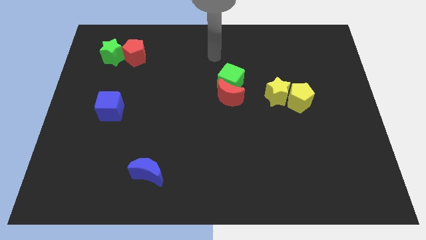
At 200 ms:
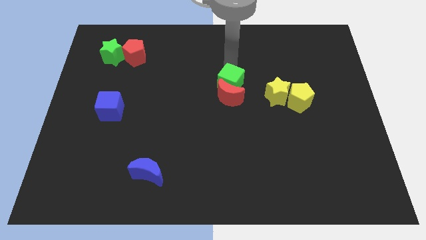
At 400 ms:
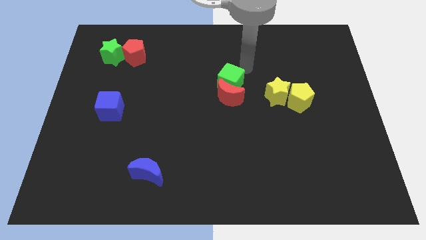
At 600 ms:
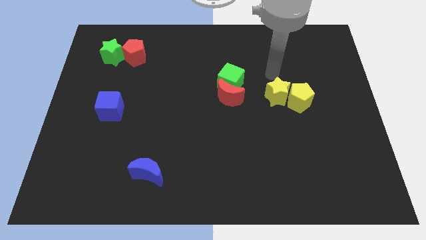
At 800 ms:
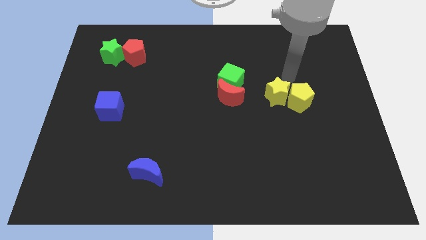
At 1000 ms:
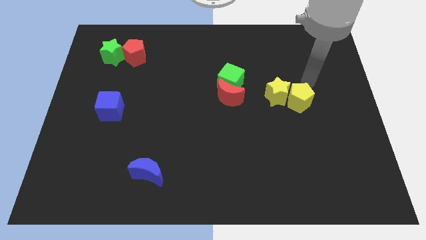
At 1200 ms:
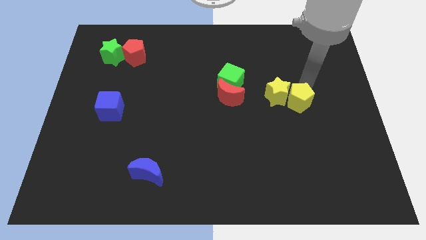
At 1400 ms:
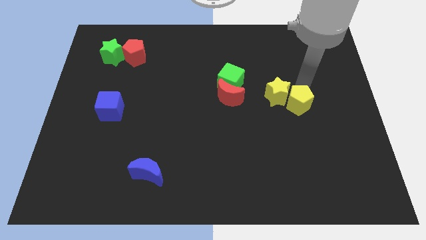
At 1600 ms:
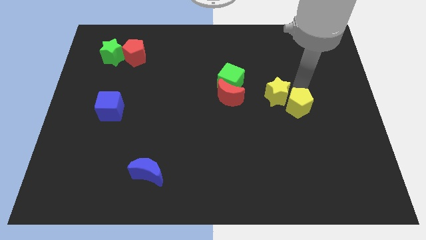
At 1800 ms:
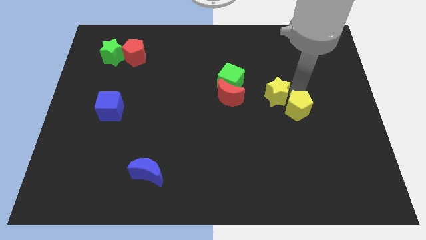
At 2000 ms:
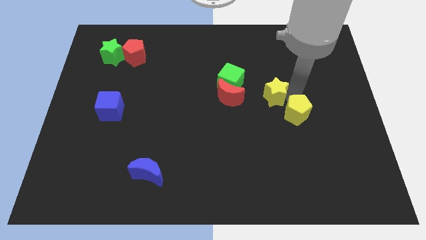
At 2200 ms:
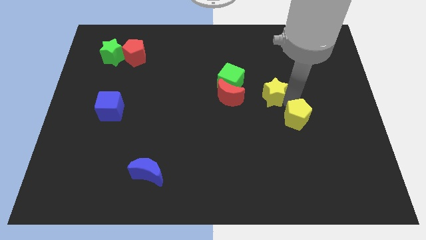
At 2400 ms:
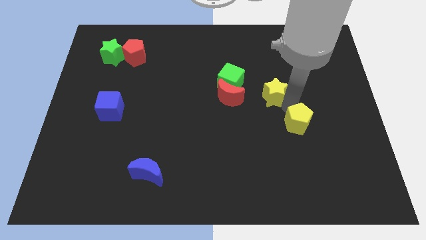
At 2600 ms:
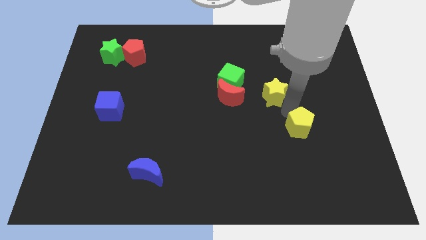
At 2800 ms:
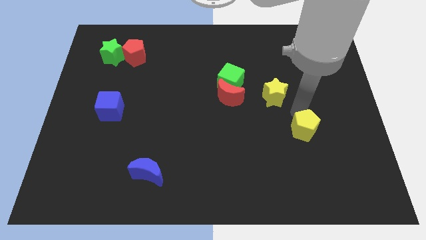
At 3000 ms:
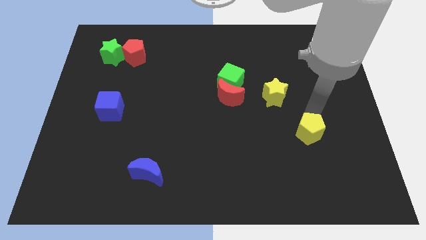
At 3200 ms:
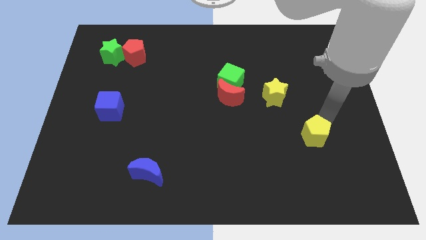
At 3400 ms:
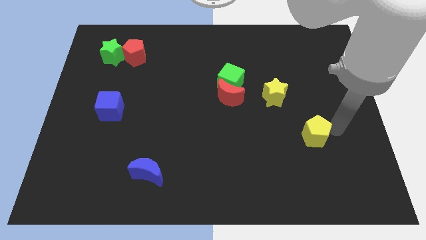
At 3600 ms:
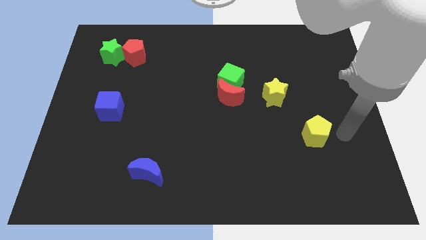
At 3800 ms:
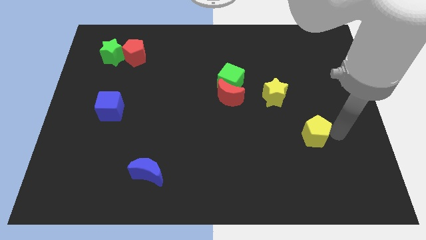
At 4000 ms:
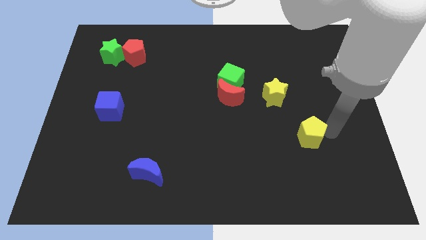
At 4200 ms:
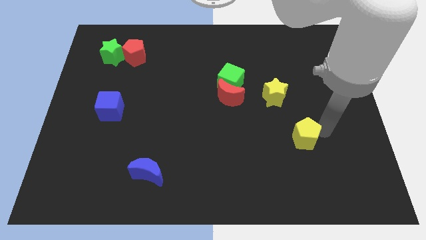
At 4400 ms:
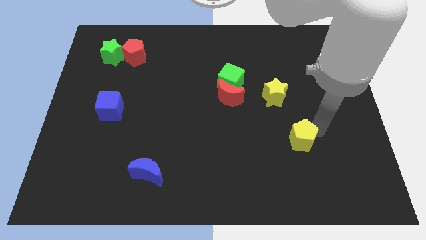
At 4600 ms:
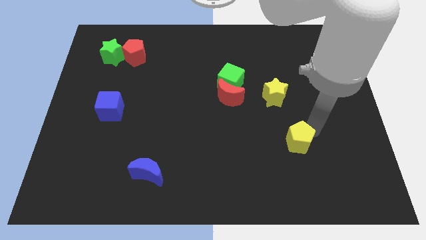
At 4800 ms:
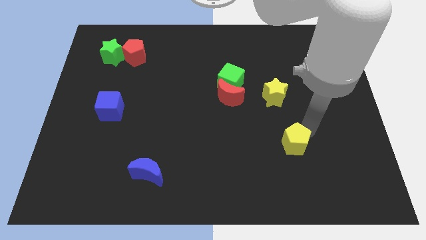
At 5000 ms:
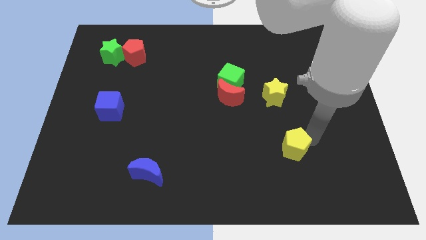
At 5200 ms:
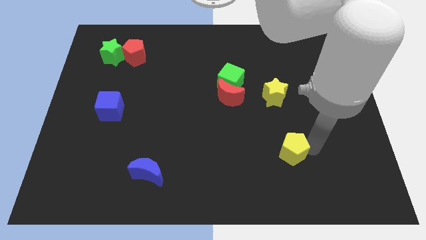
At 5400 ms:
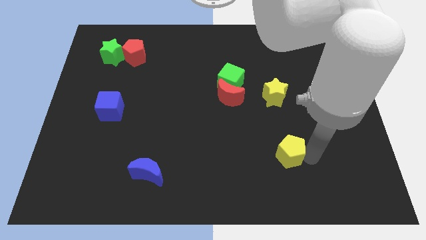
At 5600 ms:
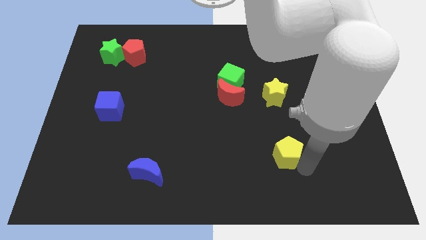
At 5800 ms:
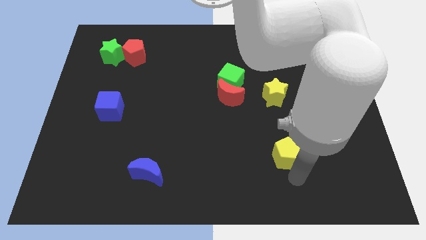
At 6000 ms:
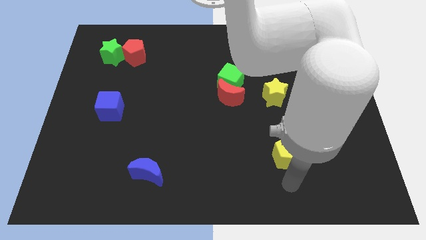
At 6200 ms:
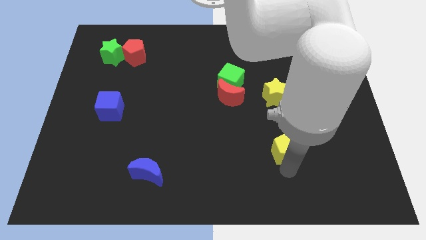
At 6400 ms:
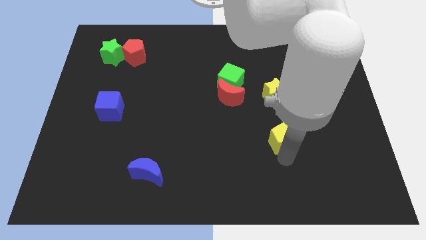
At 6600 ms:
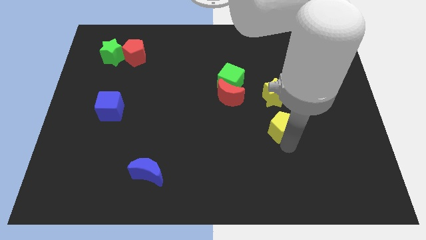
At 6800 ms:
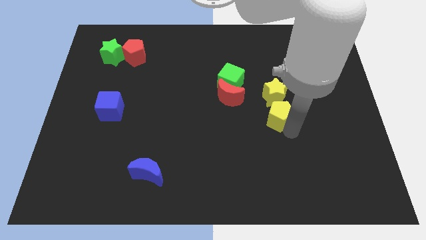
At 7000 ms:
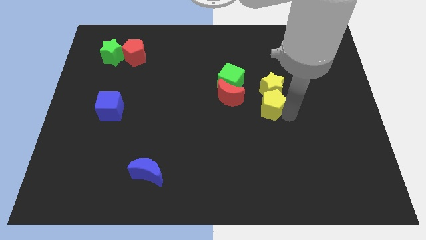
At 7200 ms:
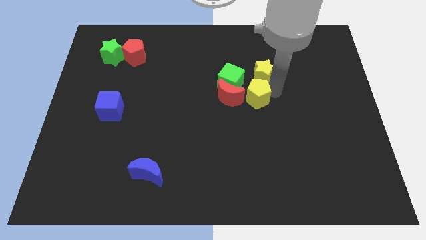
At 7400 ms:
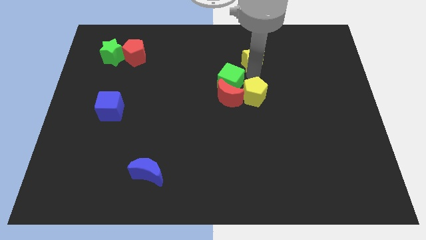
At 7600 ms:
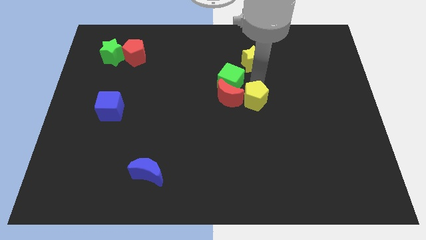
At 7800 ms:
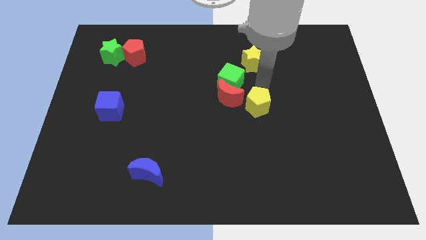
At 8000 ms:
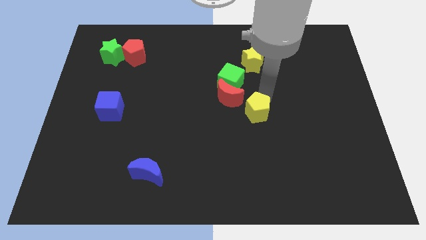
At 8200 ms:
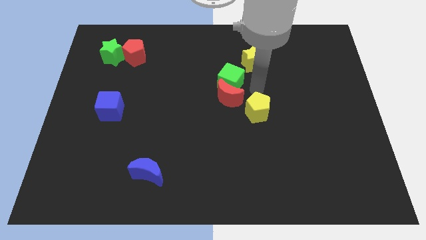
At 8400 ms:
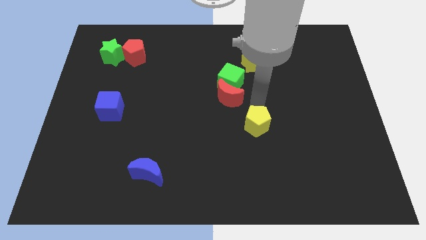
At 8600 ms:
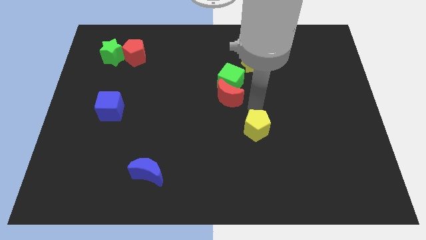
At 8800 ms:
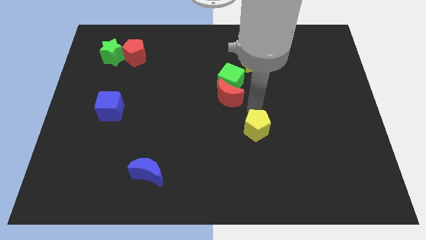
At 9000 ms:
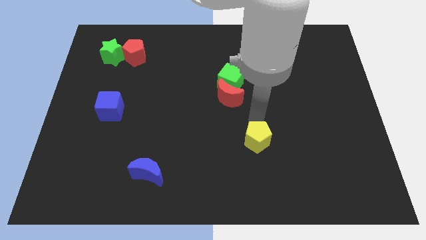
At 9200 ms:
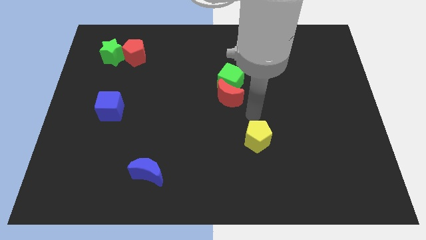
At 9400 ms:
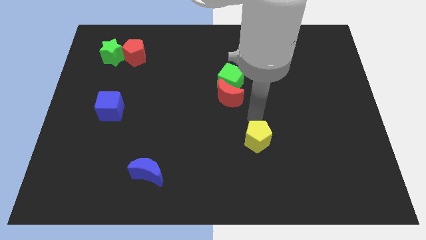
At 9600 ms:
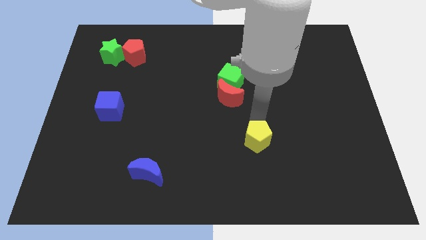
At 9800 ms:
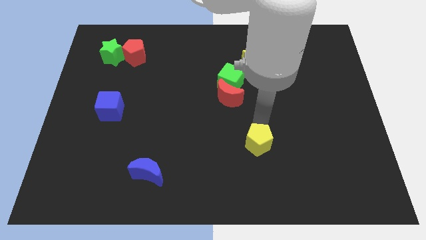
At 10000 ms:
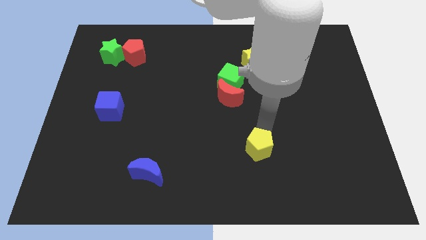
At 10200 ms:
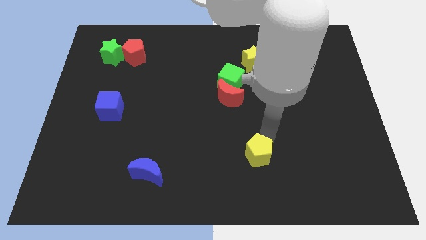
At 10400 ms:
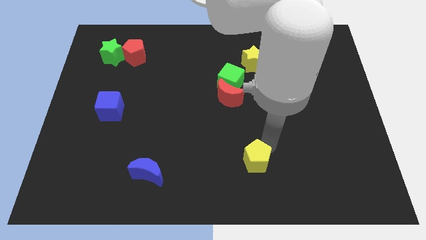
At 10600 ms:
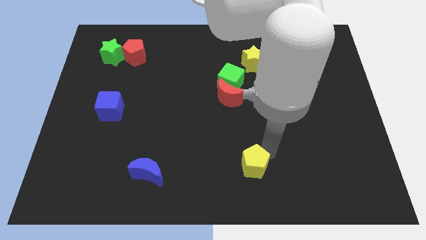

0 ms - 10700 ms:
push the yellow pentagon to the bottom

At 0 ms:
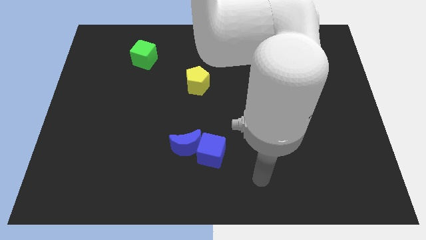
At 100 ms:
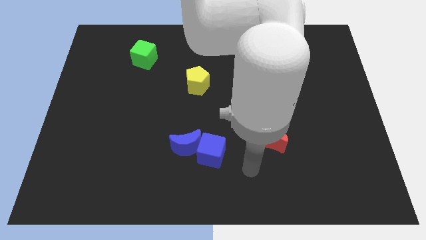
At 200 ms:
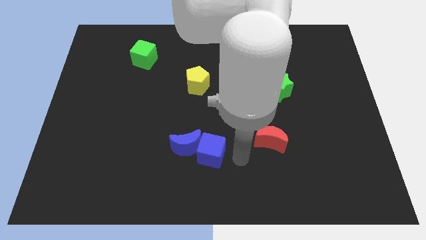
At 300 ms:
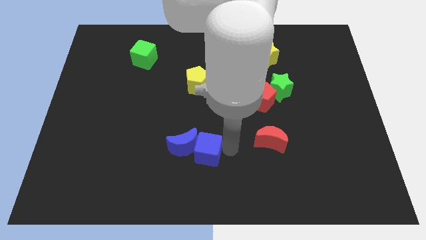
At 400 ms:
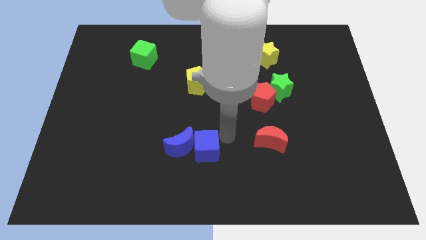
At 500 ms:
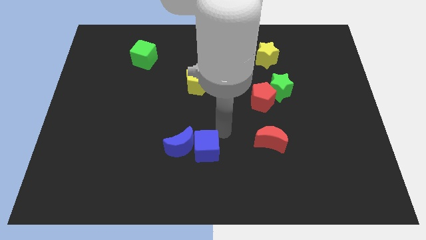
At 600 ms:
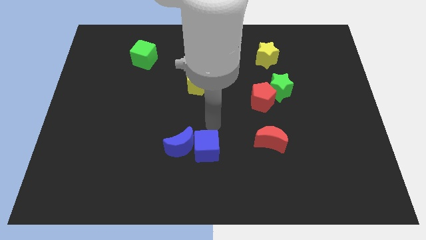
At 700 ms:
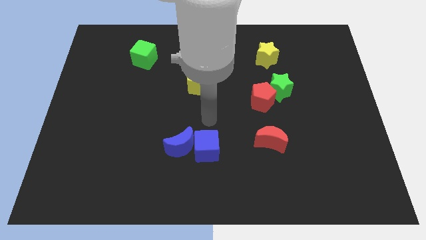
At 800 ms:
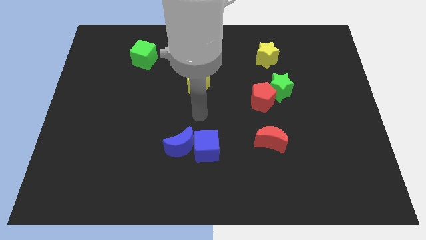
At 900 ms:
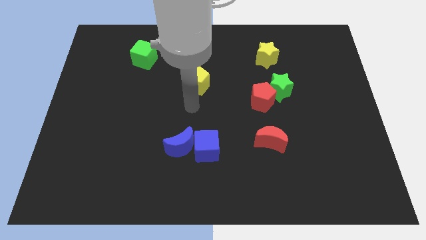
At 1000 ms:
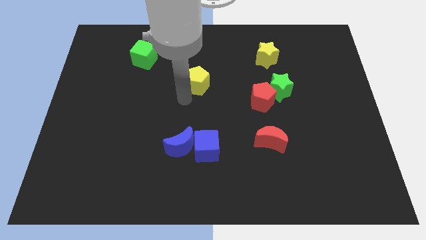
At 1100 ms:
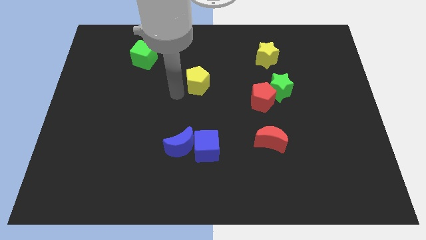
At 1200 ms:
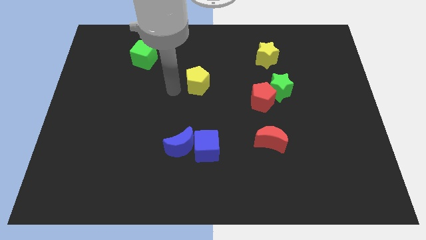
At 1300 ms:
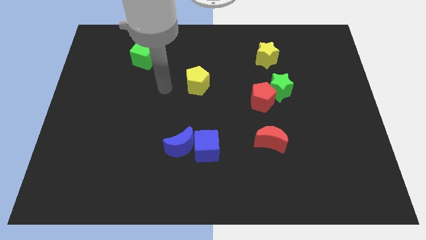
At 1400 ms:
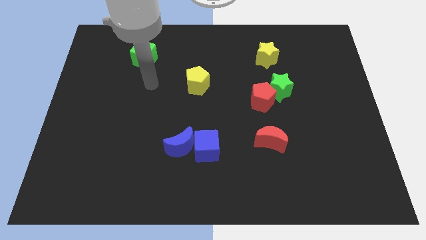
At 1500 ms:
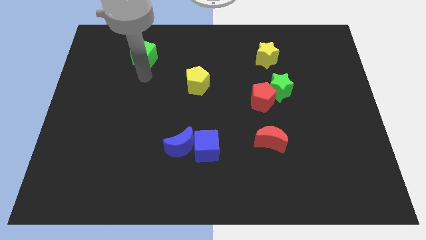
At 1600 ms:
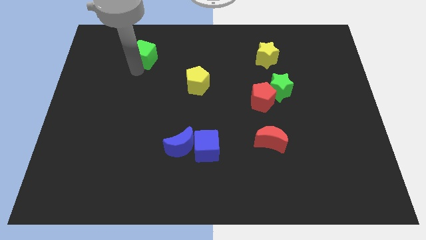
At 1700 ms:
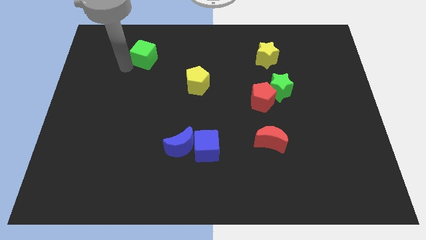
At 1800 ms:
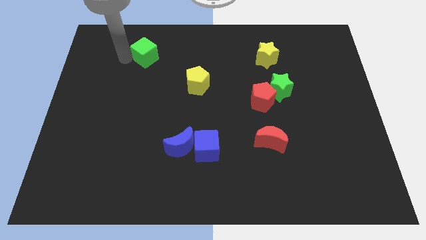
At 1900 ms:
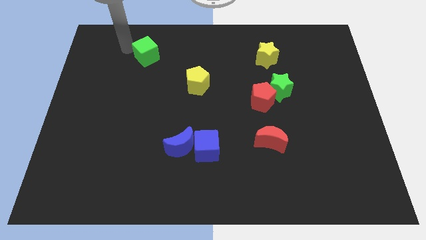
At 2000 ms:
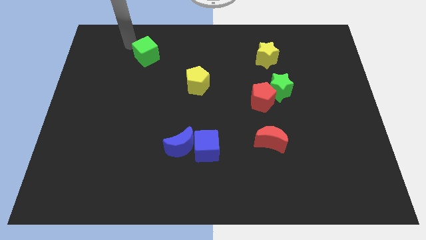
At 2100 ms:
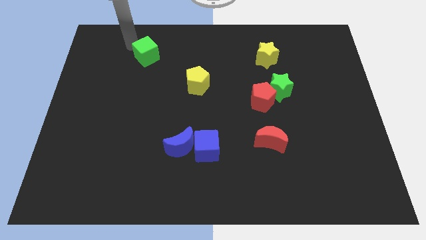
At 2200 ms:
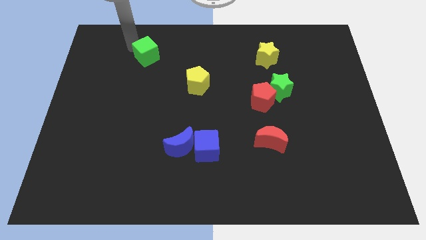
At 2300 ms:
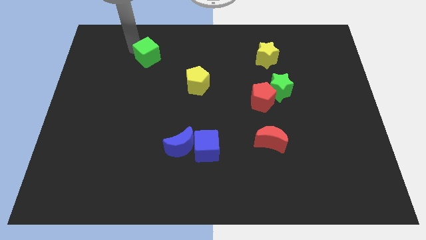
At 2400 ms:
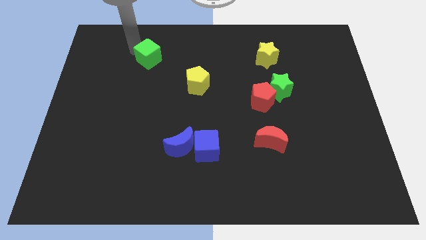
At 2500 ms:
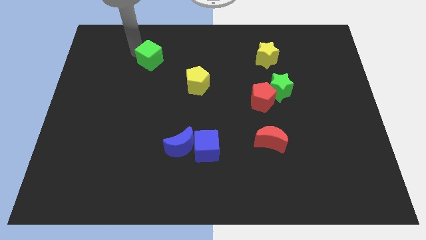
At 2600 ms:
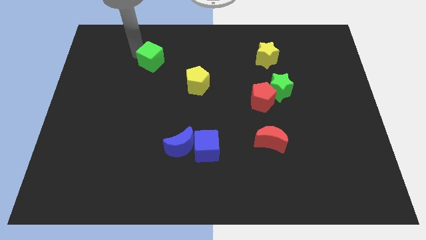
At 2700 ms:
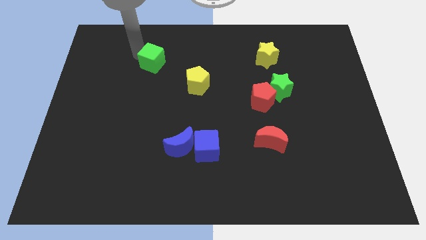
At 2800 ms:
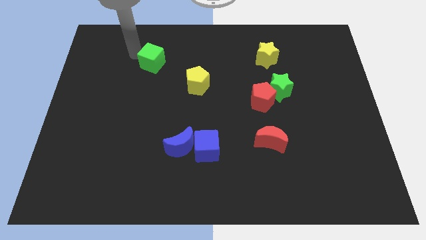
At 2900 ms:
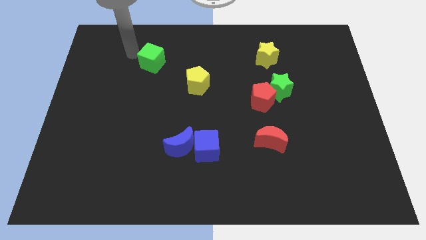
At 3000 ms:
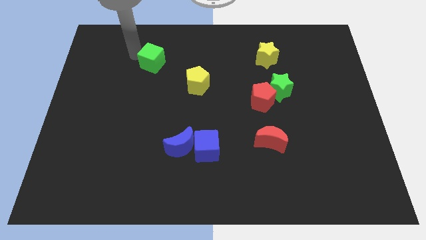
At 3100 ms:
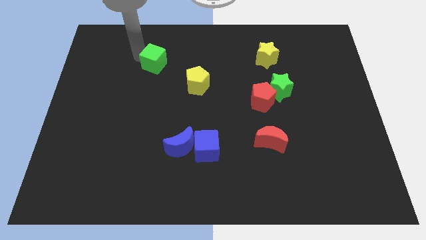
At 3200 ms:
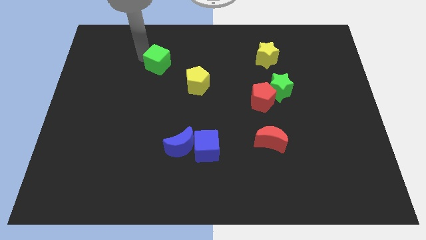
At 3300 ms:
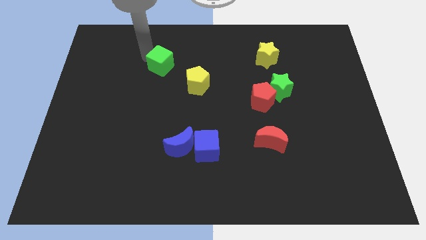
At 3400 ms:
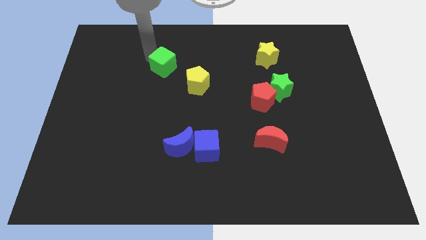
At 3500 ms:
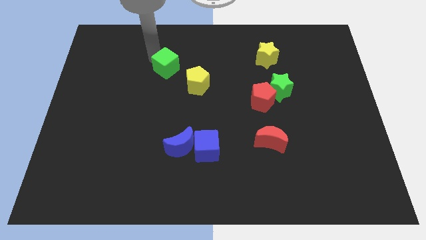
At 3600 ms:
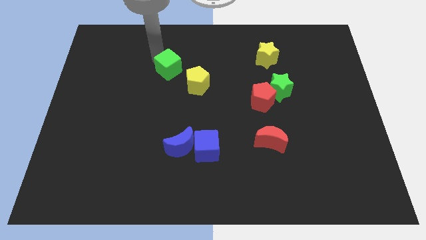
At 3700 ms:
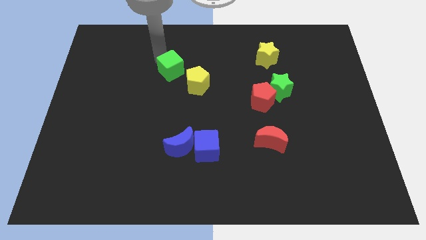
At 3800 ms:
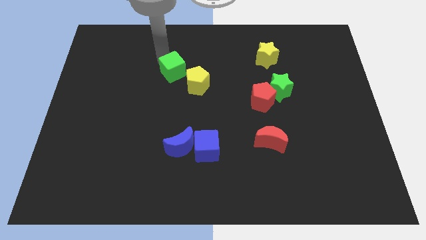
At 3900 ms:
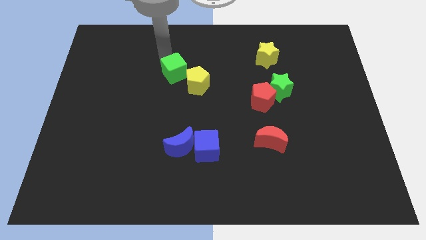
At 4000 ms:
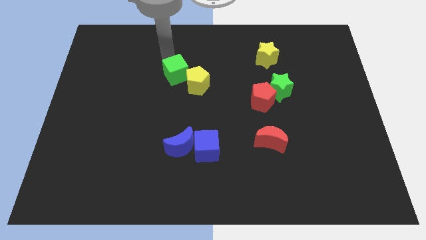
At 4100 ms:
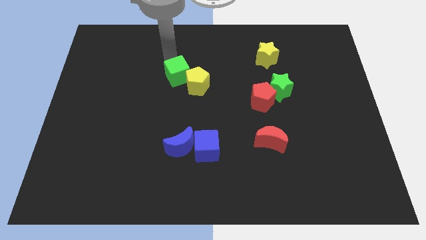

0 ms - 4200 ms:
put the green cube to the center
